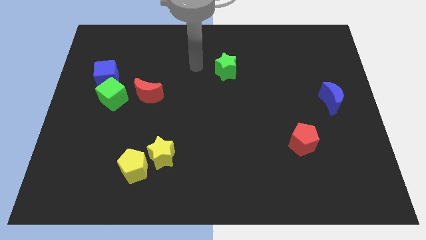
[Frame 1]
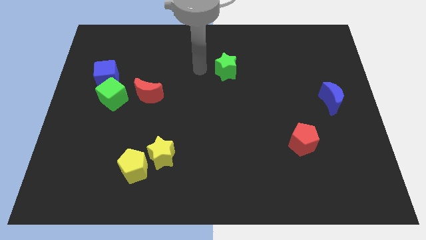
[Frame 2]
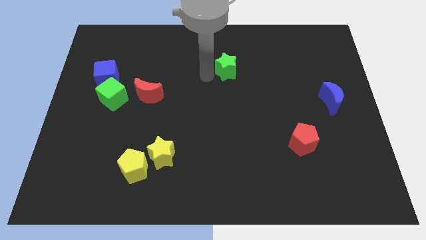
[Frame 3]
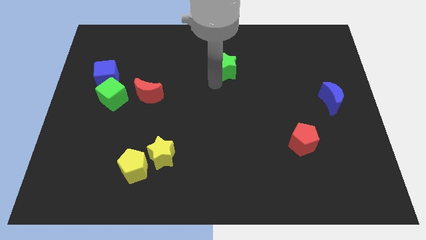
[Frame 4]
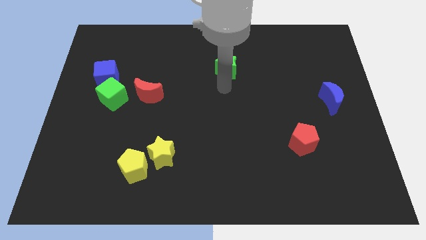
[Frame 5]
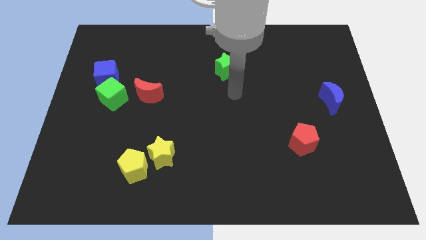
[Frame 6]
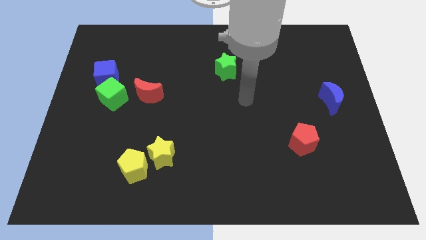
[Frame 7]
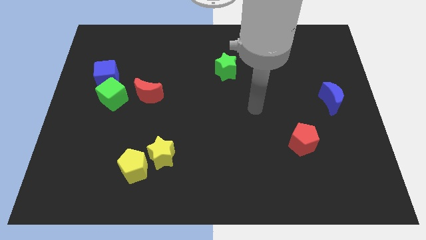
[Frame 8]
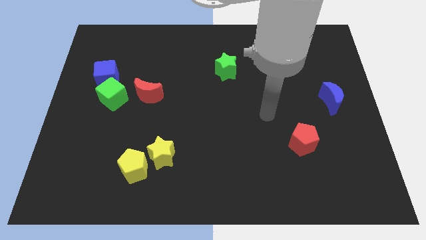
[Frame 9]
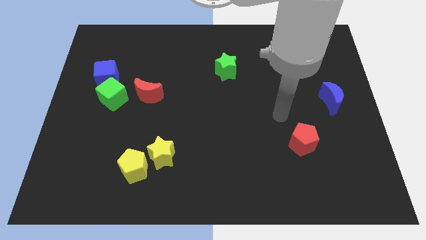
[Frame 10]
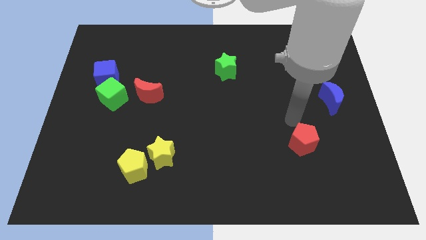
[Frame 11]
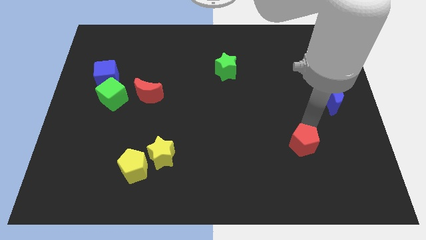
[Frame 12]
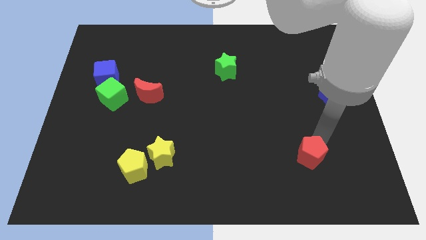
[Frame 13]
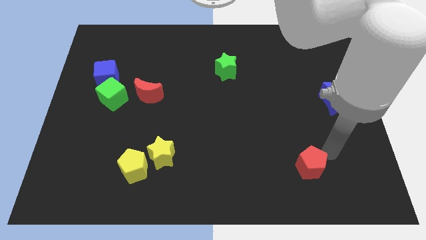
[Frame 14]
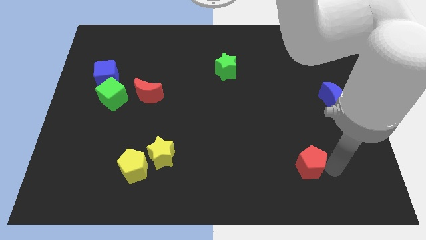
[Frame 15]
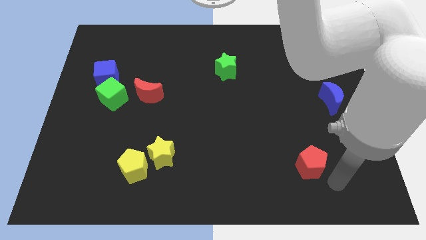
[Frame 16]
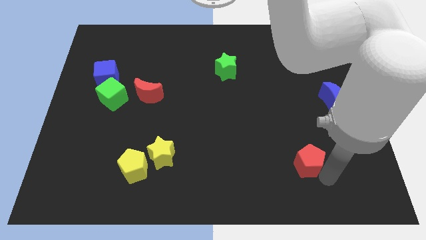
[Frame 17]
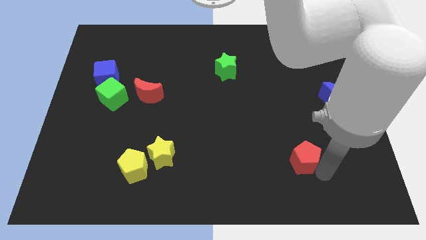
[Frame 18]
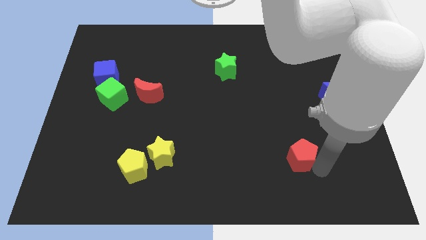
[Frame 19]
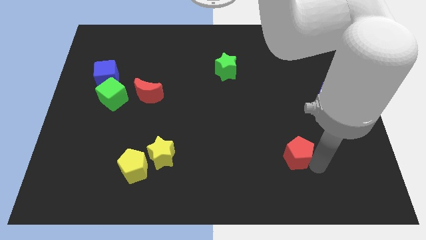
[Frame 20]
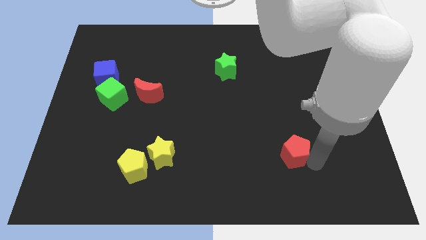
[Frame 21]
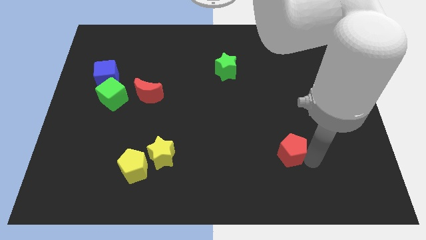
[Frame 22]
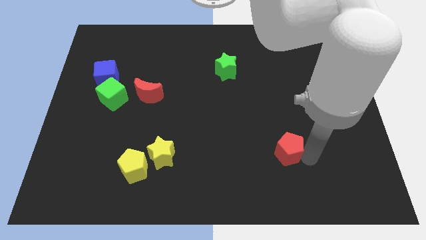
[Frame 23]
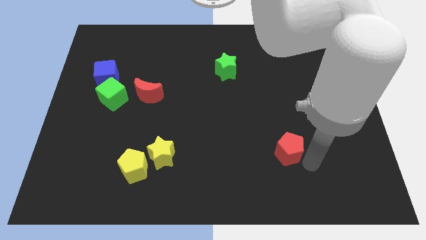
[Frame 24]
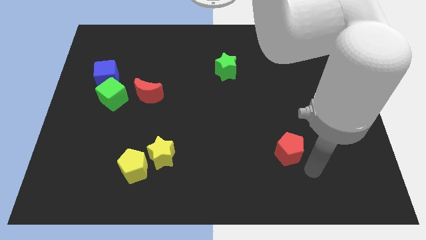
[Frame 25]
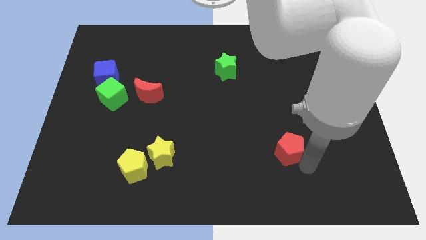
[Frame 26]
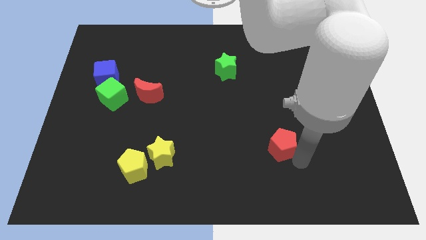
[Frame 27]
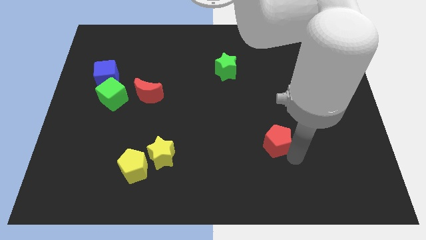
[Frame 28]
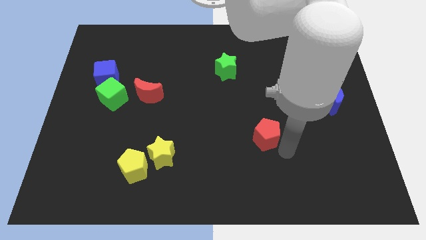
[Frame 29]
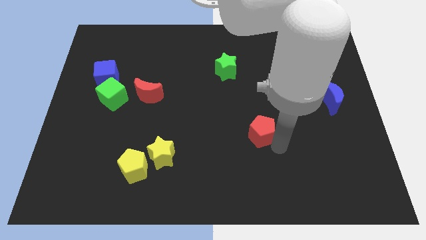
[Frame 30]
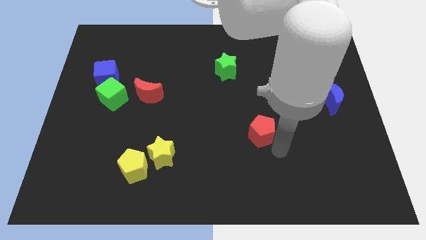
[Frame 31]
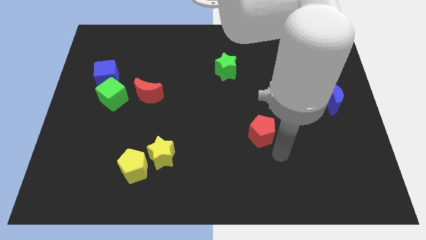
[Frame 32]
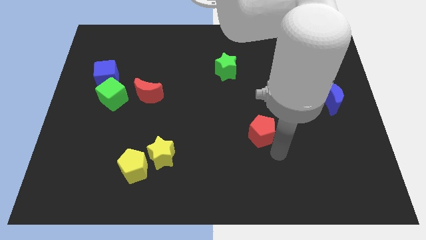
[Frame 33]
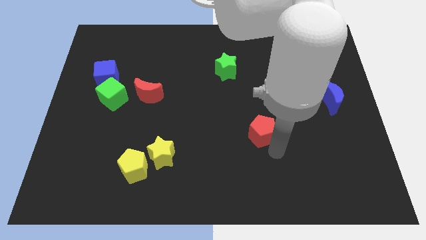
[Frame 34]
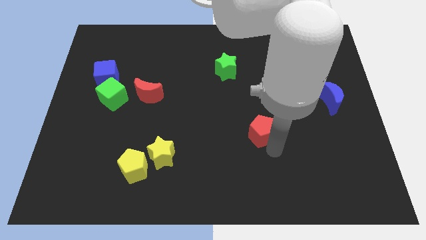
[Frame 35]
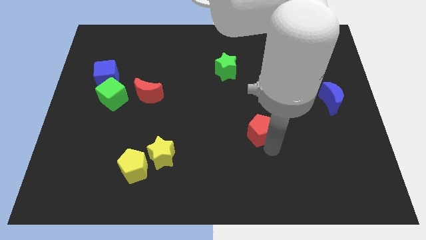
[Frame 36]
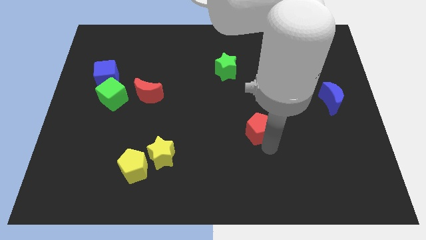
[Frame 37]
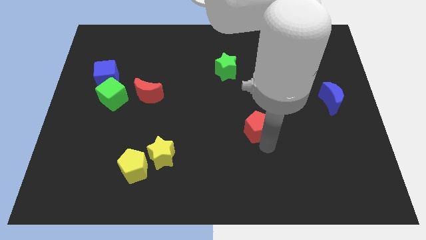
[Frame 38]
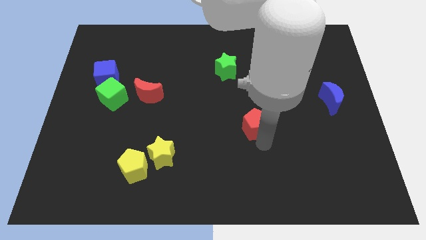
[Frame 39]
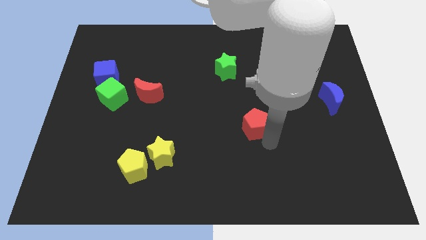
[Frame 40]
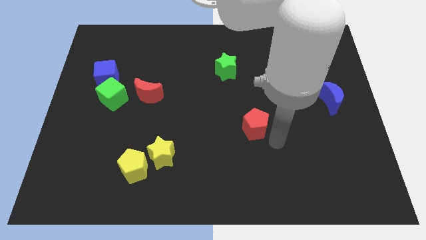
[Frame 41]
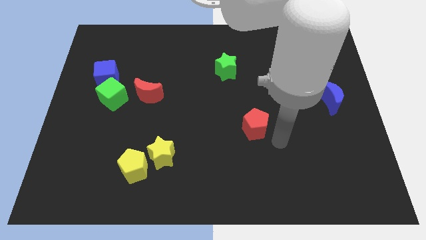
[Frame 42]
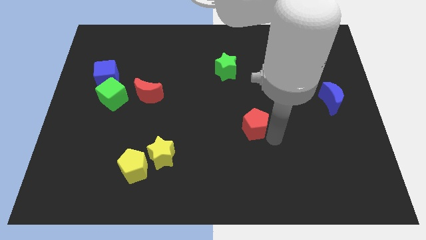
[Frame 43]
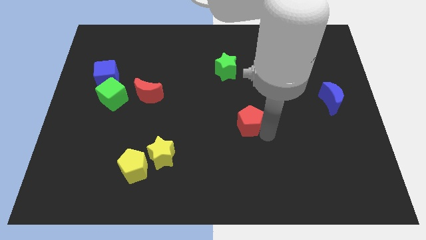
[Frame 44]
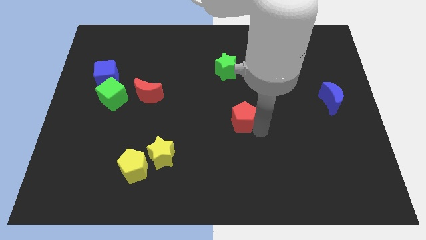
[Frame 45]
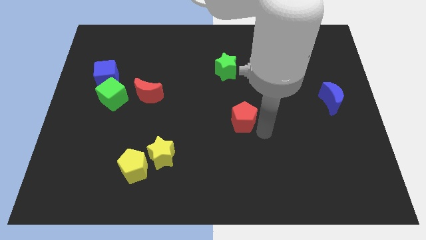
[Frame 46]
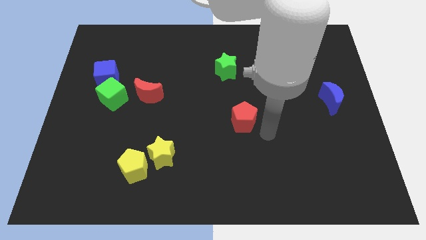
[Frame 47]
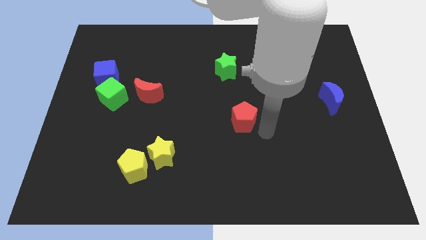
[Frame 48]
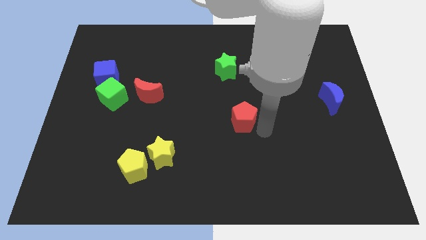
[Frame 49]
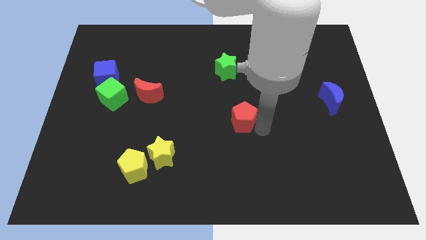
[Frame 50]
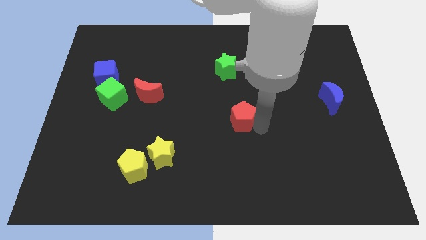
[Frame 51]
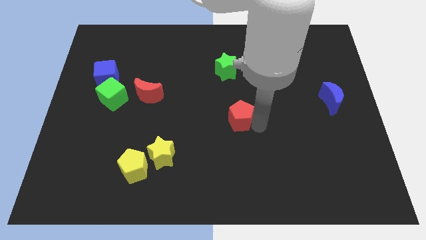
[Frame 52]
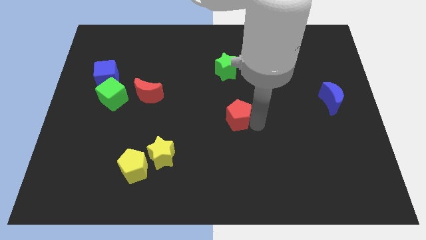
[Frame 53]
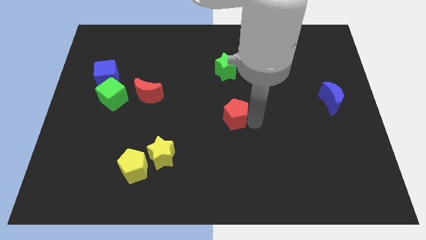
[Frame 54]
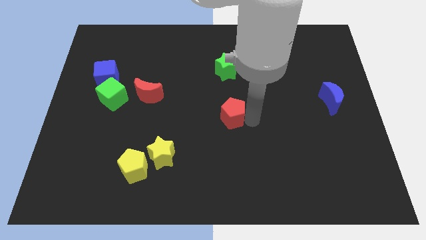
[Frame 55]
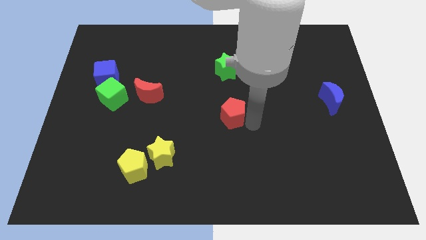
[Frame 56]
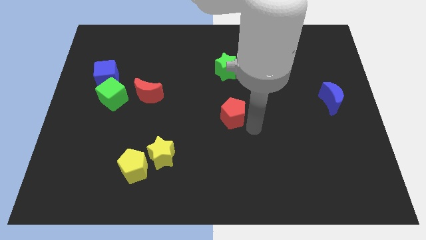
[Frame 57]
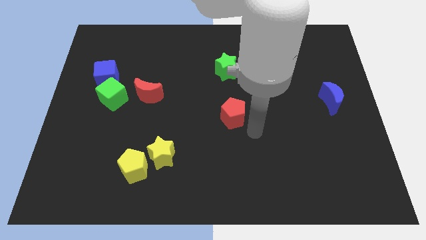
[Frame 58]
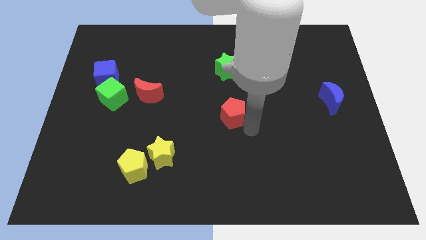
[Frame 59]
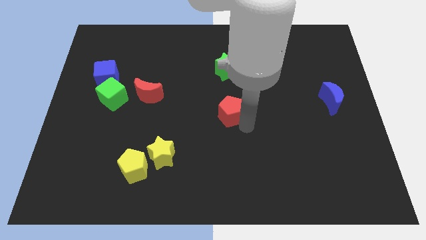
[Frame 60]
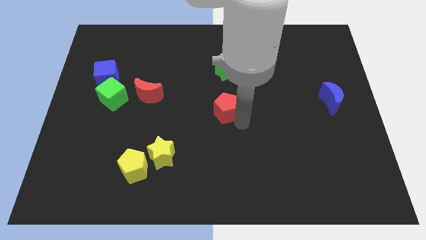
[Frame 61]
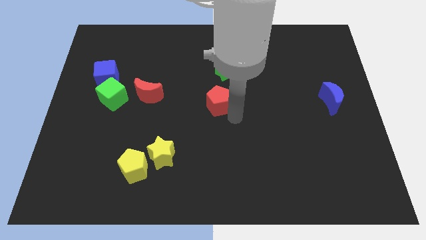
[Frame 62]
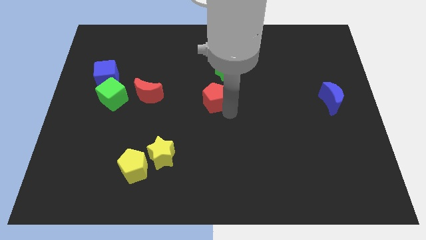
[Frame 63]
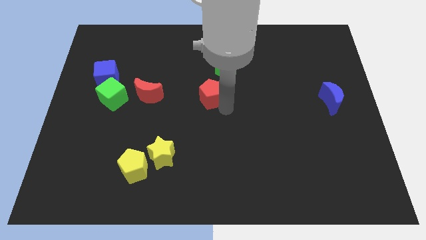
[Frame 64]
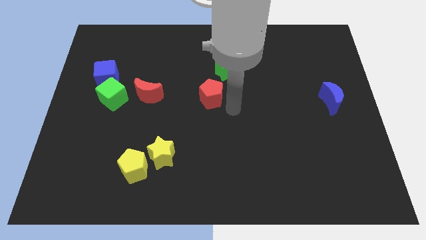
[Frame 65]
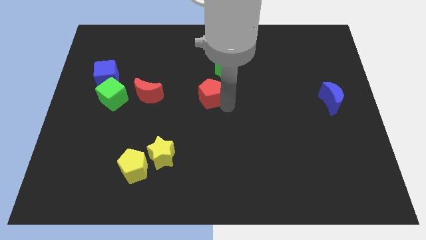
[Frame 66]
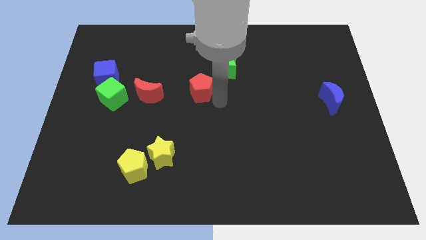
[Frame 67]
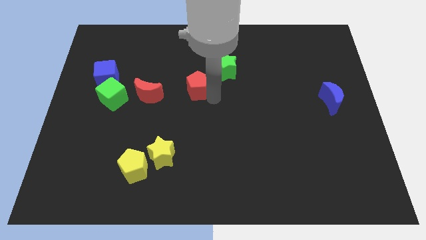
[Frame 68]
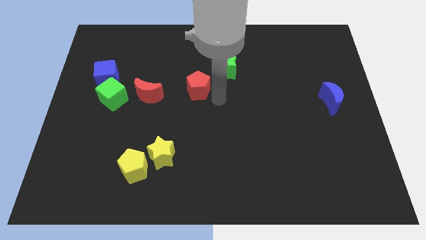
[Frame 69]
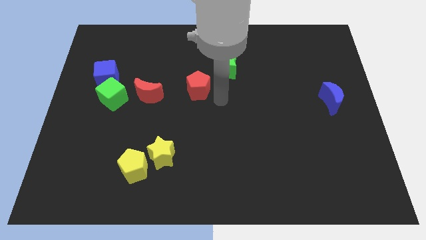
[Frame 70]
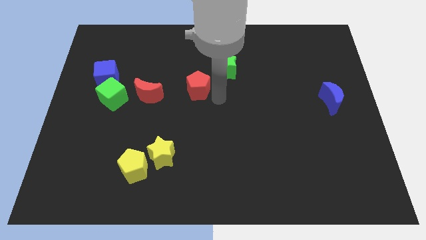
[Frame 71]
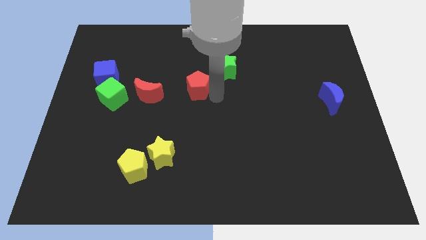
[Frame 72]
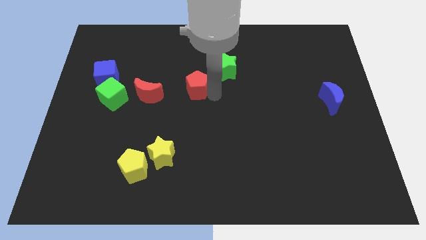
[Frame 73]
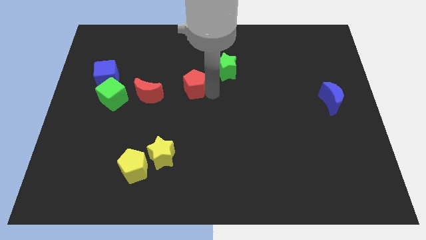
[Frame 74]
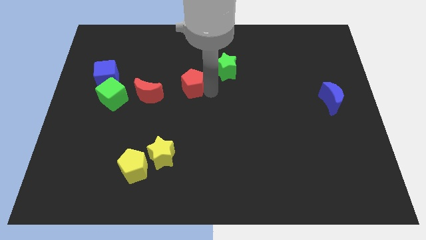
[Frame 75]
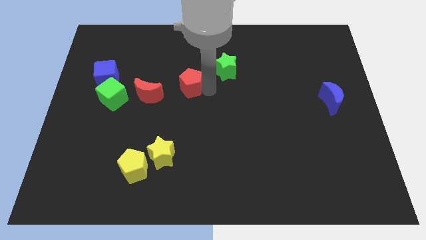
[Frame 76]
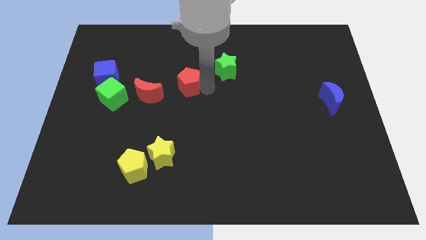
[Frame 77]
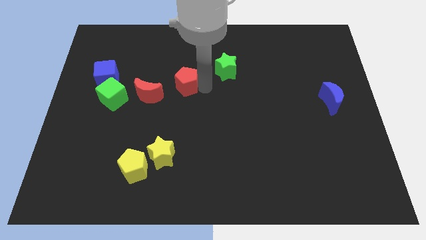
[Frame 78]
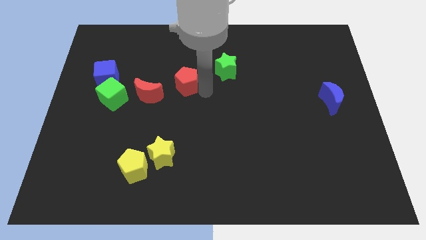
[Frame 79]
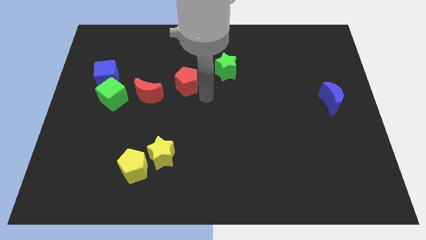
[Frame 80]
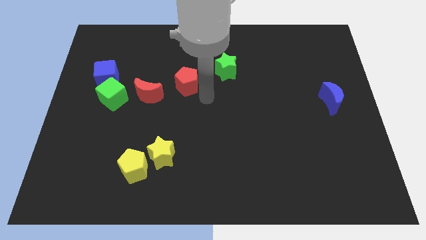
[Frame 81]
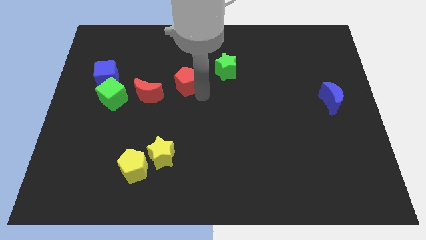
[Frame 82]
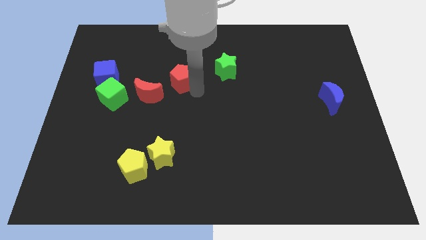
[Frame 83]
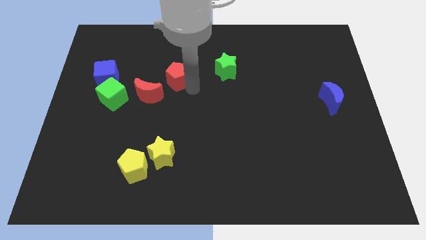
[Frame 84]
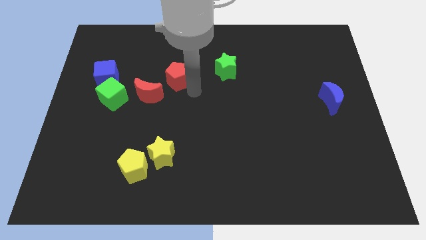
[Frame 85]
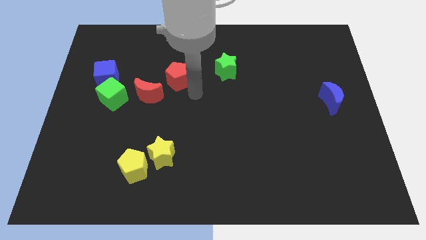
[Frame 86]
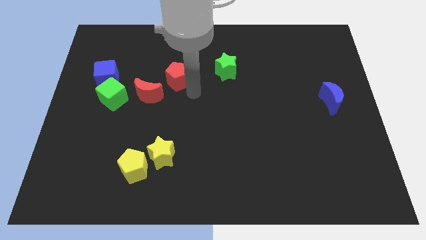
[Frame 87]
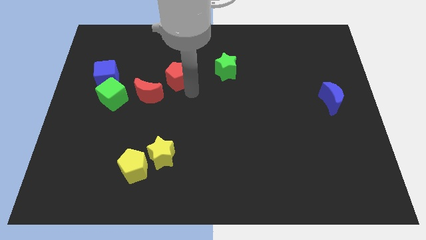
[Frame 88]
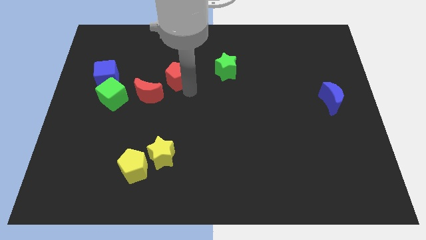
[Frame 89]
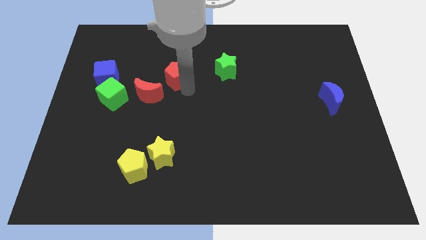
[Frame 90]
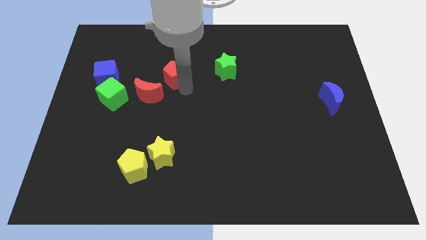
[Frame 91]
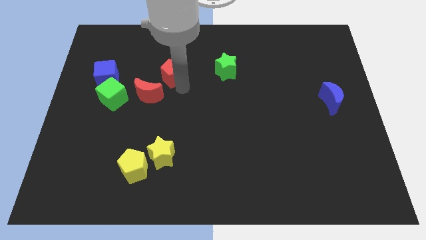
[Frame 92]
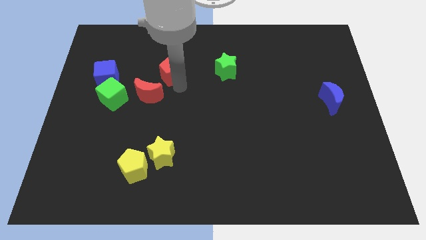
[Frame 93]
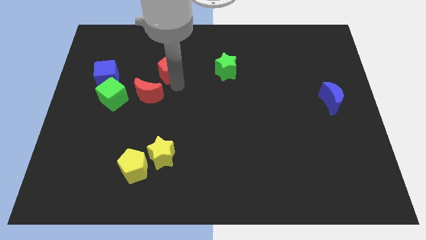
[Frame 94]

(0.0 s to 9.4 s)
put the red pentagon above the red moon
